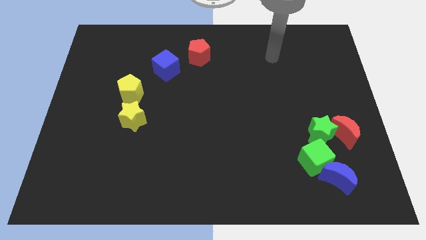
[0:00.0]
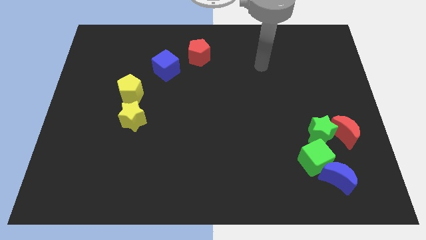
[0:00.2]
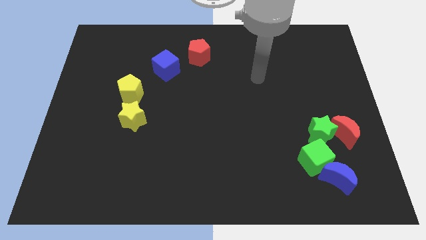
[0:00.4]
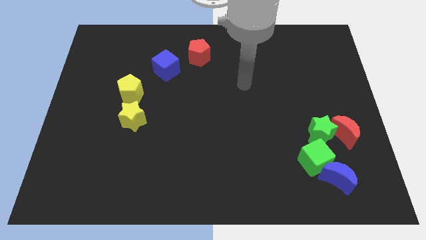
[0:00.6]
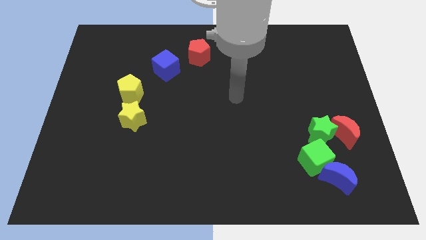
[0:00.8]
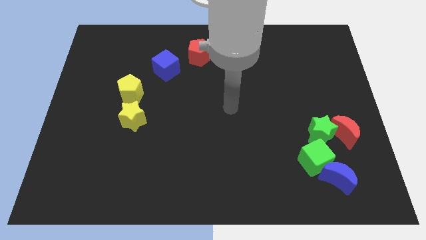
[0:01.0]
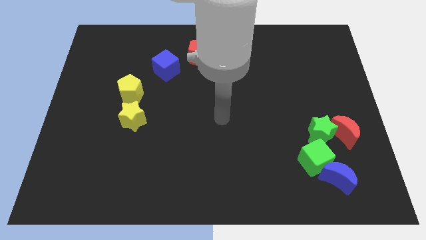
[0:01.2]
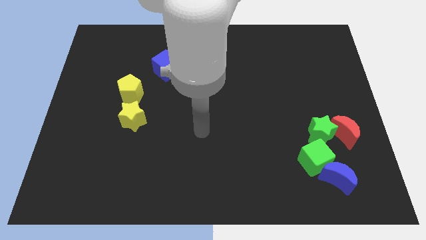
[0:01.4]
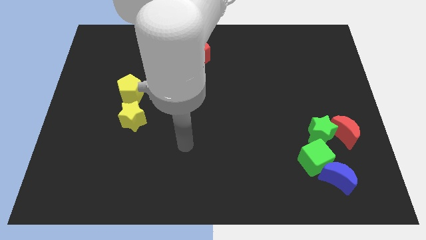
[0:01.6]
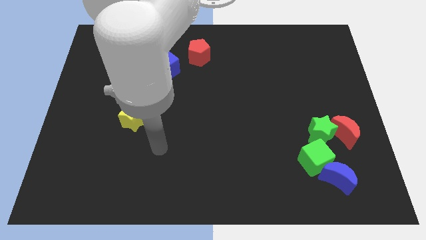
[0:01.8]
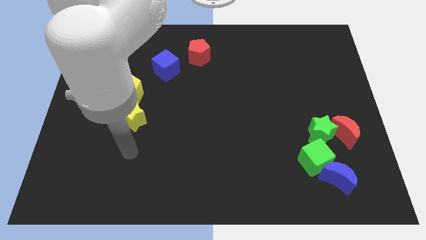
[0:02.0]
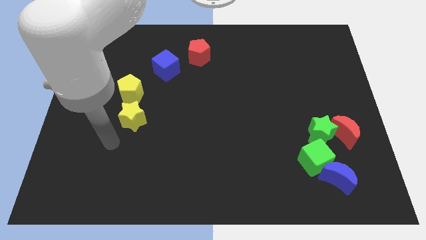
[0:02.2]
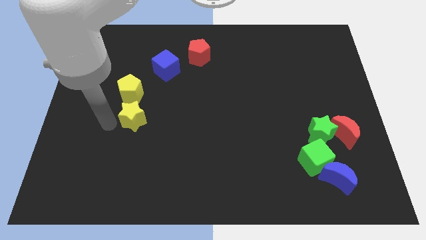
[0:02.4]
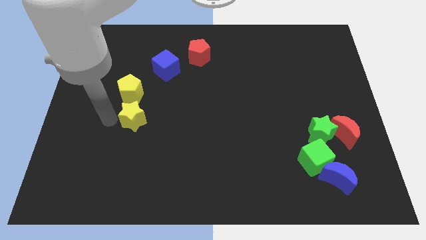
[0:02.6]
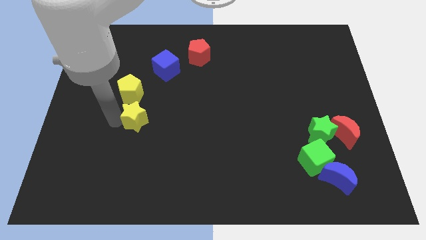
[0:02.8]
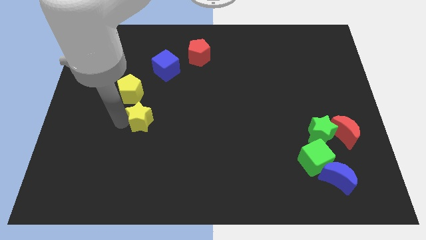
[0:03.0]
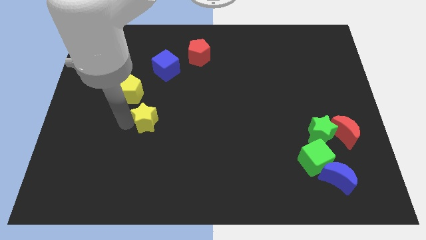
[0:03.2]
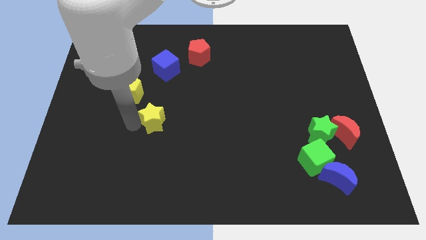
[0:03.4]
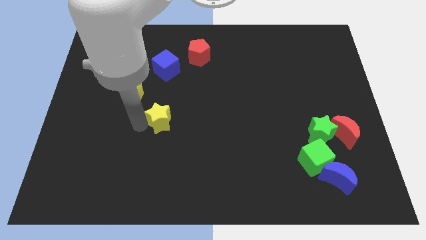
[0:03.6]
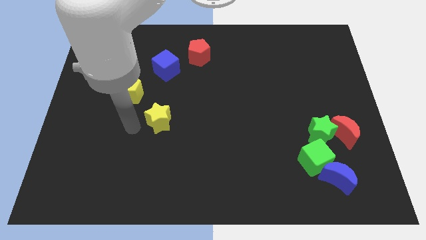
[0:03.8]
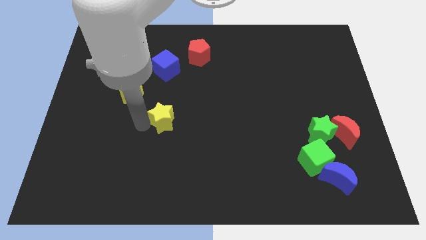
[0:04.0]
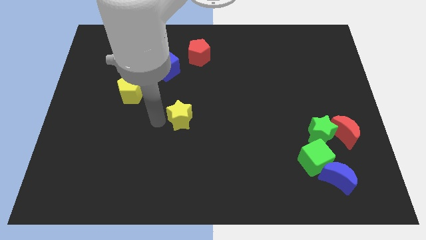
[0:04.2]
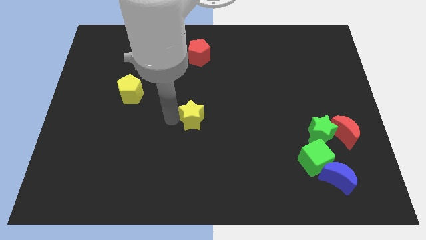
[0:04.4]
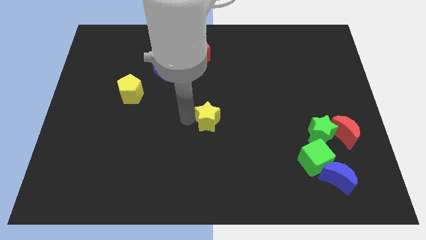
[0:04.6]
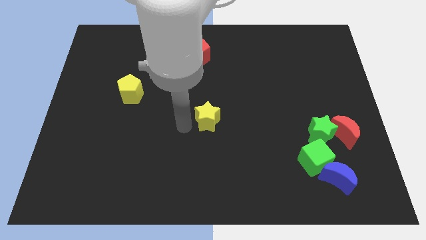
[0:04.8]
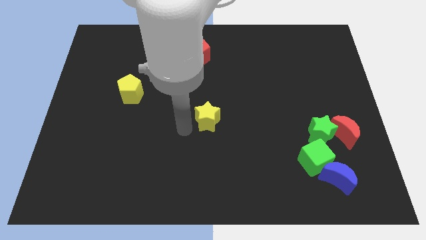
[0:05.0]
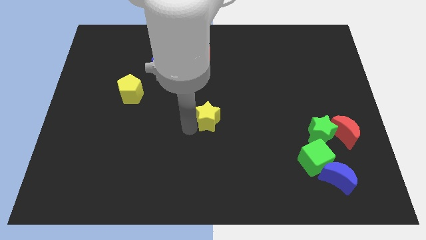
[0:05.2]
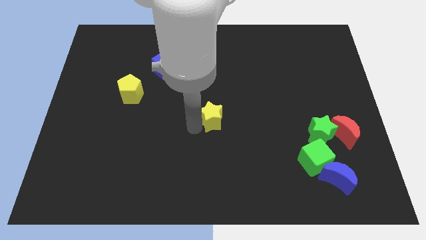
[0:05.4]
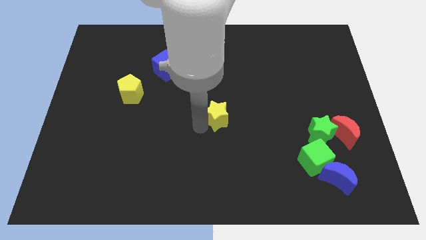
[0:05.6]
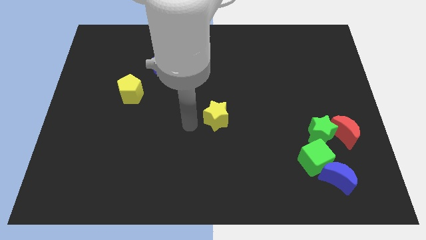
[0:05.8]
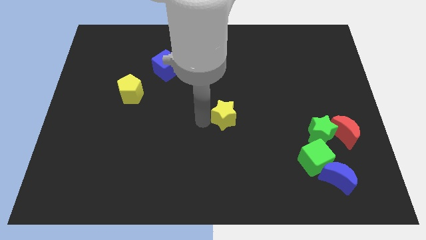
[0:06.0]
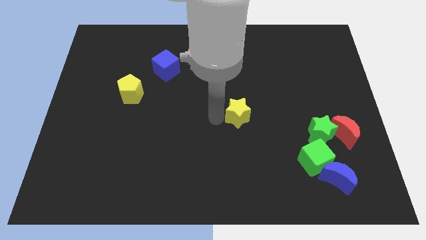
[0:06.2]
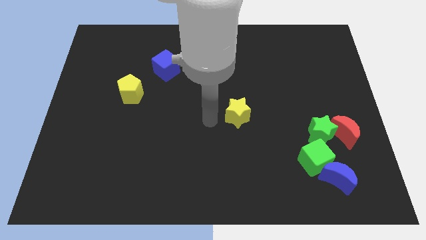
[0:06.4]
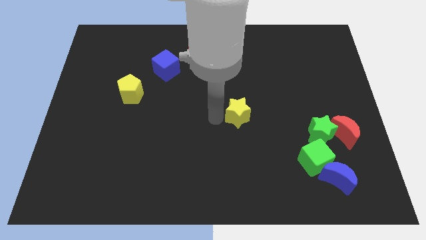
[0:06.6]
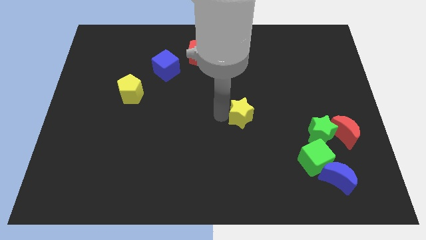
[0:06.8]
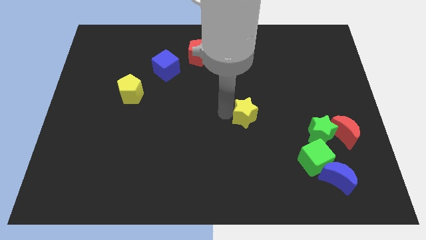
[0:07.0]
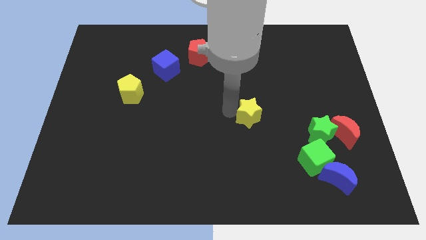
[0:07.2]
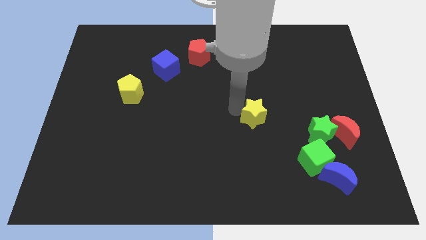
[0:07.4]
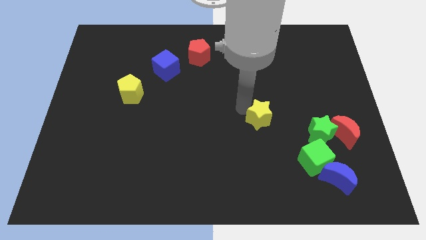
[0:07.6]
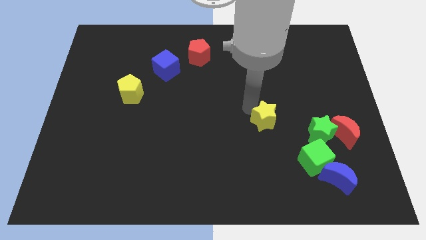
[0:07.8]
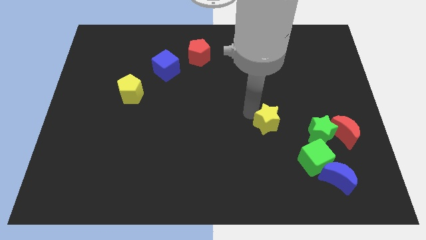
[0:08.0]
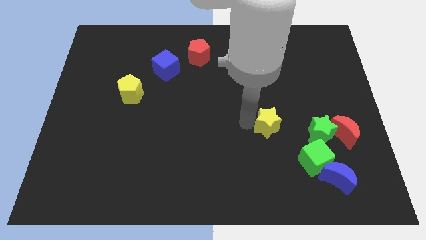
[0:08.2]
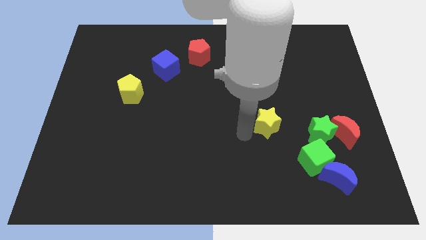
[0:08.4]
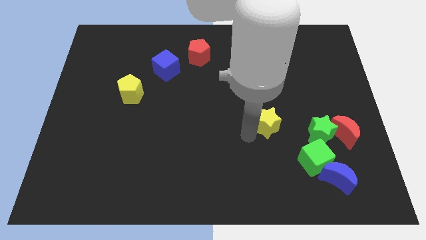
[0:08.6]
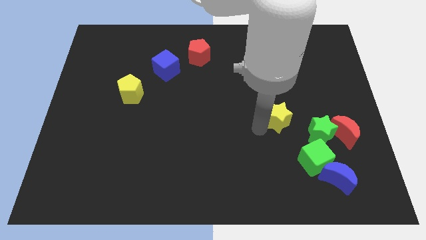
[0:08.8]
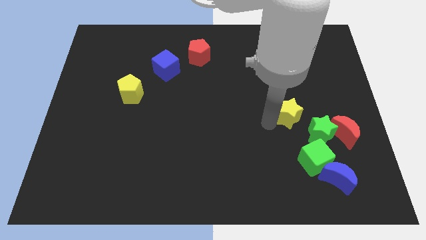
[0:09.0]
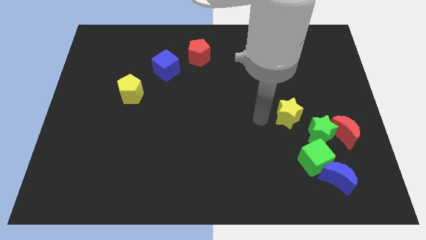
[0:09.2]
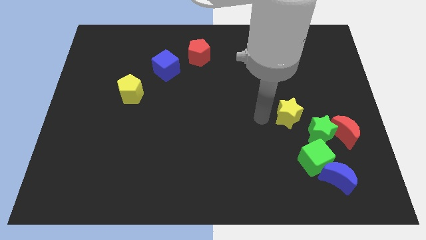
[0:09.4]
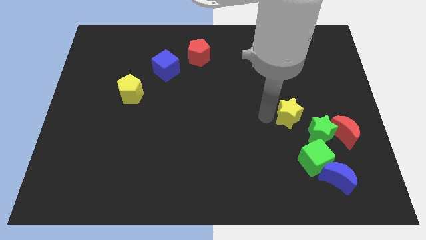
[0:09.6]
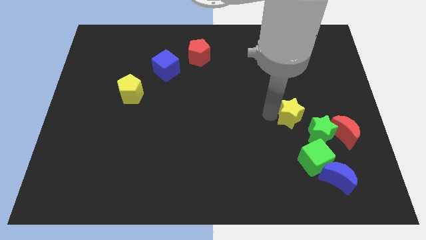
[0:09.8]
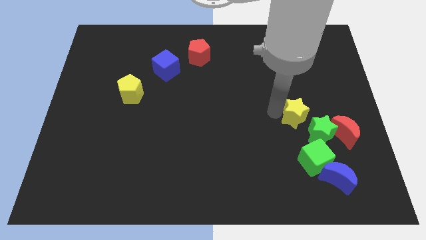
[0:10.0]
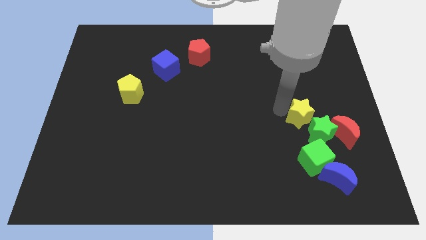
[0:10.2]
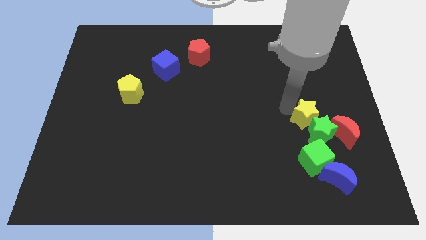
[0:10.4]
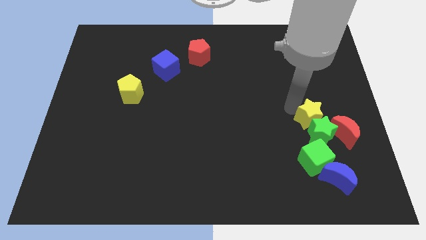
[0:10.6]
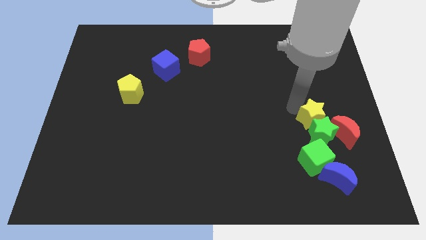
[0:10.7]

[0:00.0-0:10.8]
slide the yellow star to the top right side of the green star

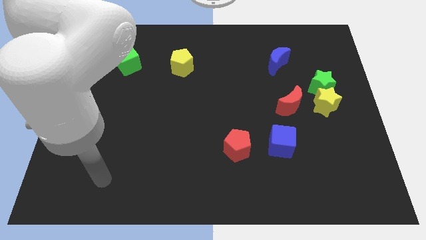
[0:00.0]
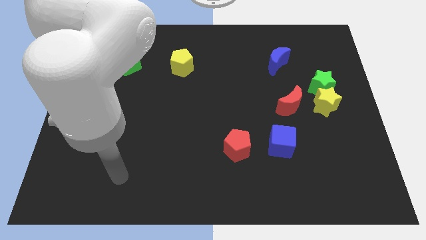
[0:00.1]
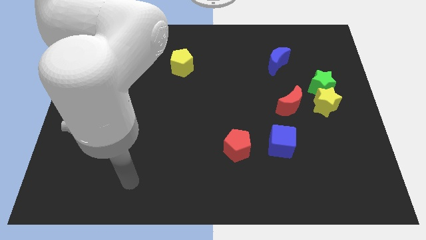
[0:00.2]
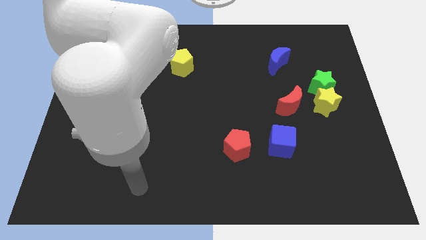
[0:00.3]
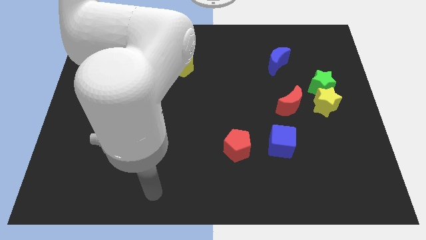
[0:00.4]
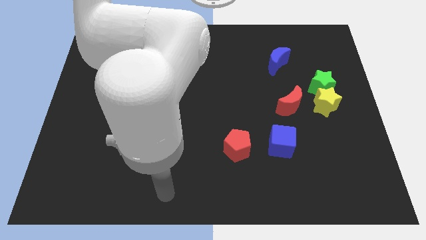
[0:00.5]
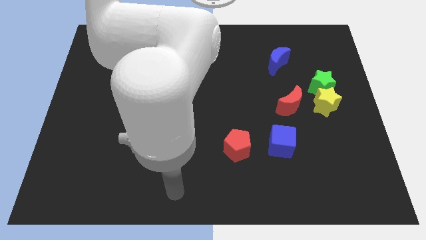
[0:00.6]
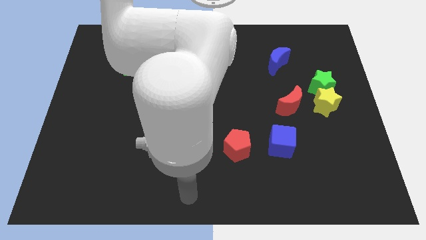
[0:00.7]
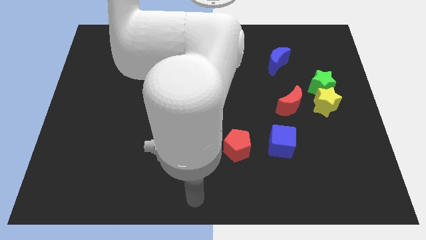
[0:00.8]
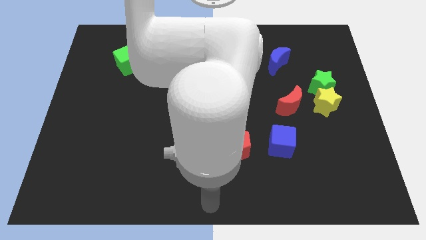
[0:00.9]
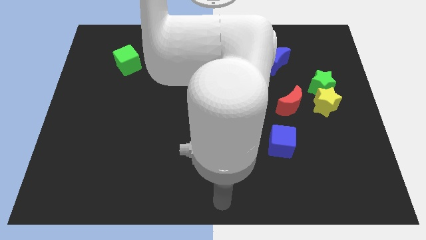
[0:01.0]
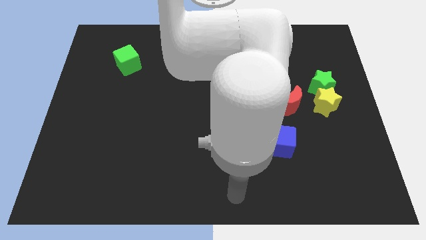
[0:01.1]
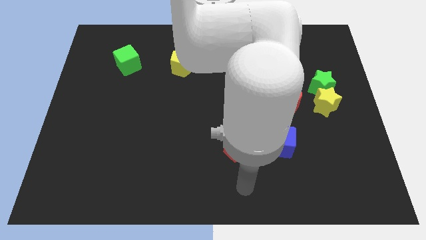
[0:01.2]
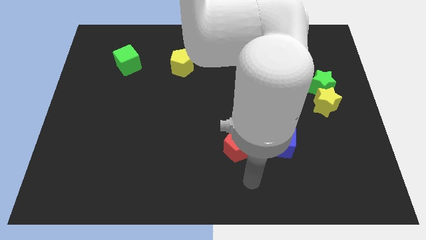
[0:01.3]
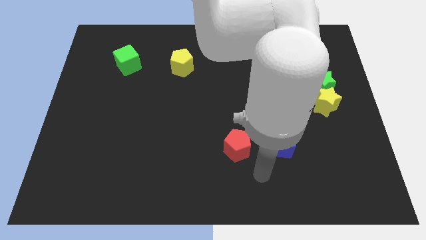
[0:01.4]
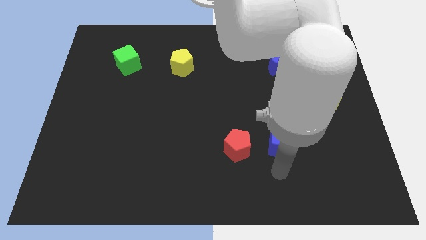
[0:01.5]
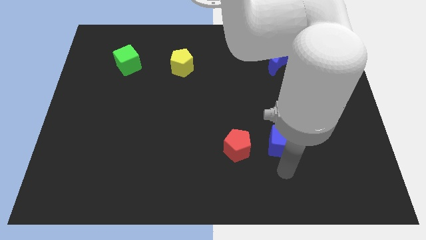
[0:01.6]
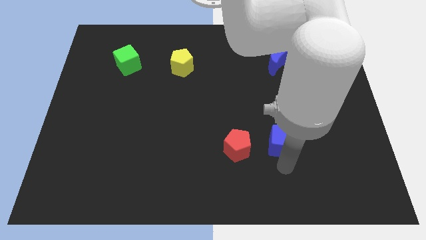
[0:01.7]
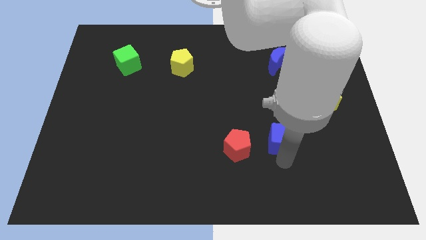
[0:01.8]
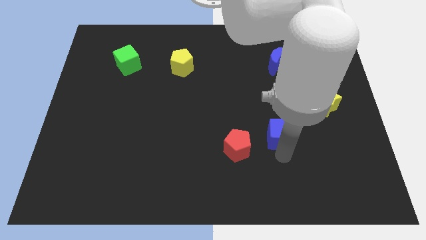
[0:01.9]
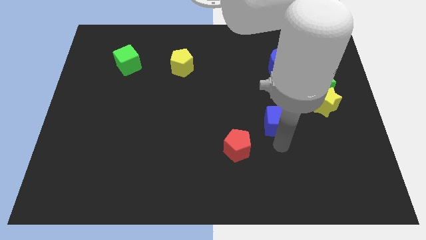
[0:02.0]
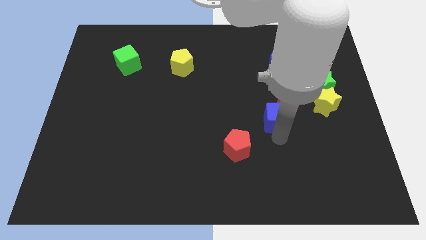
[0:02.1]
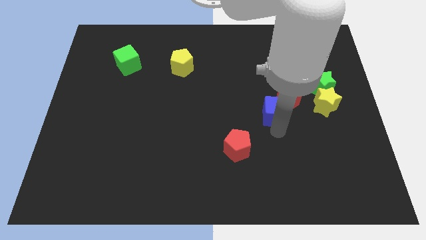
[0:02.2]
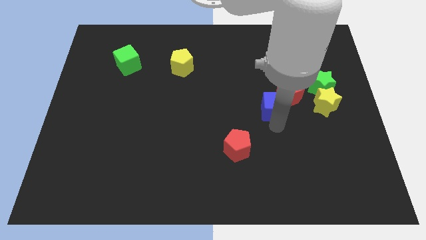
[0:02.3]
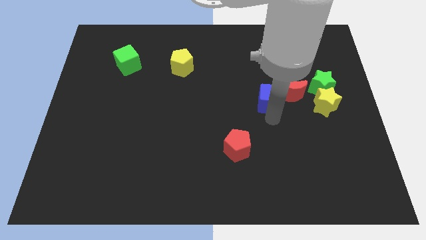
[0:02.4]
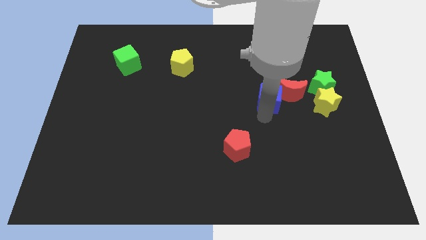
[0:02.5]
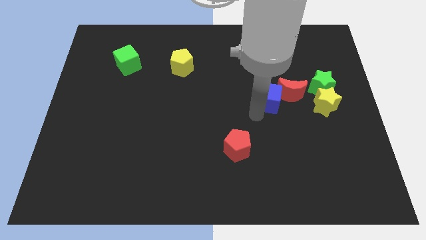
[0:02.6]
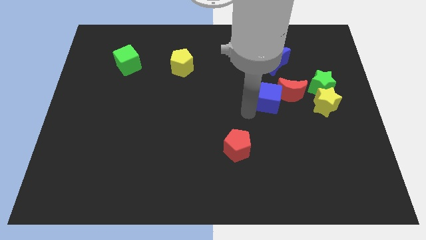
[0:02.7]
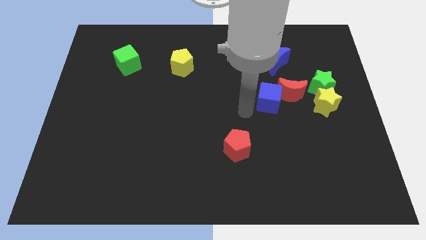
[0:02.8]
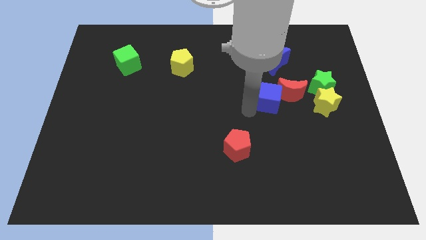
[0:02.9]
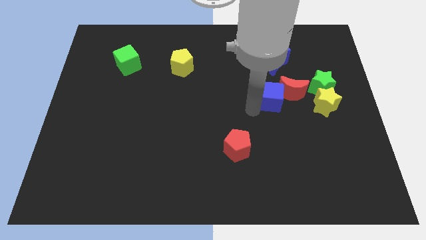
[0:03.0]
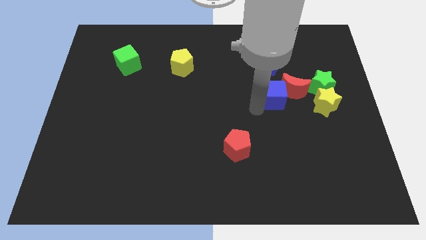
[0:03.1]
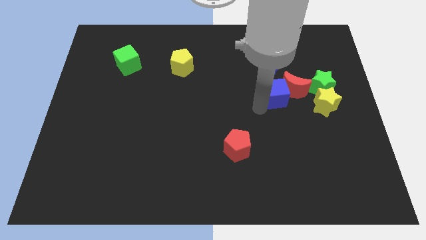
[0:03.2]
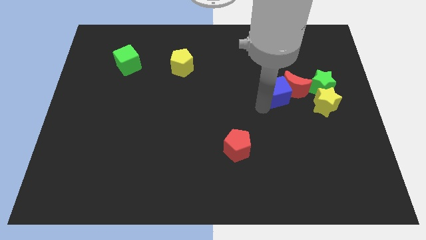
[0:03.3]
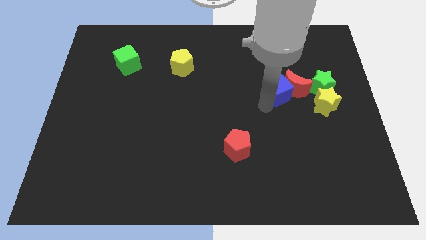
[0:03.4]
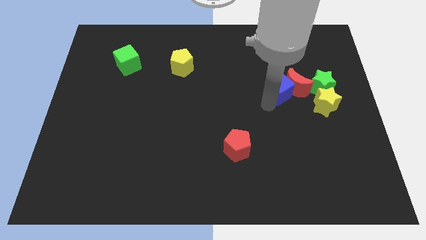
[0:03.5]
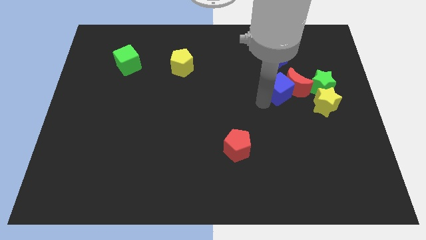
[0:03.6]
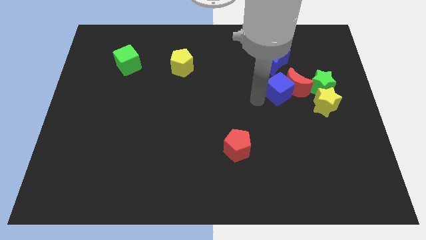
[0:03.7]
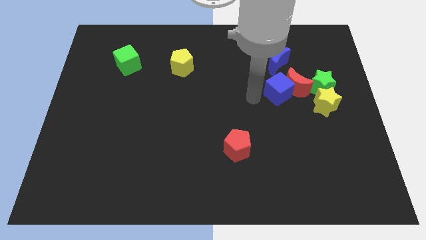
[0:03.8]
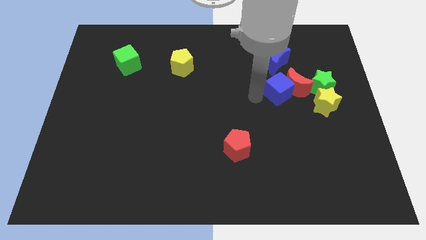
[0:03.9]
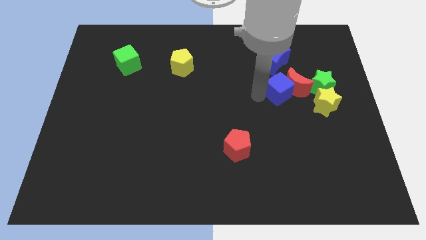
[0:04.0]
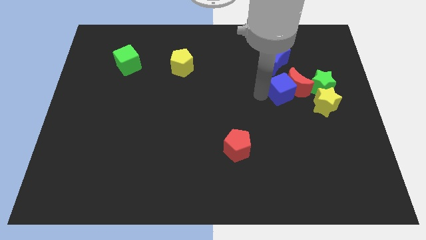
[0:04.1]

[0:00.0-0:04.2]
slide the blue cube to the top left side of the yellow star
